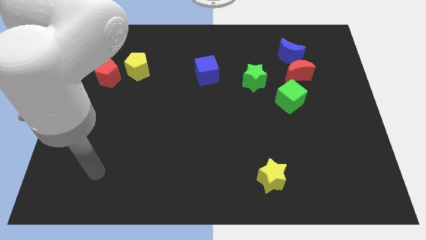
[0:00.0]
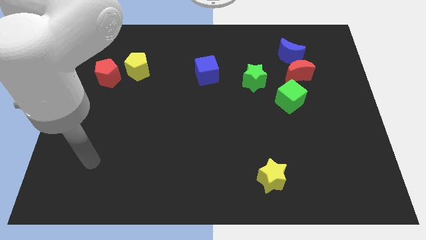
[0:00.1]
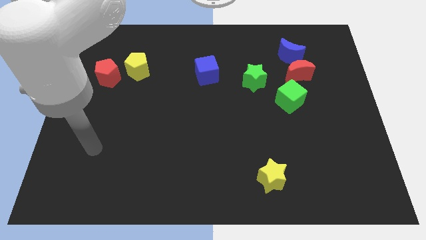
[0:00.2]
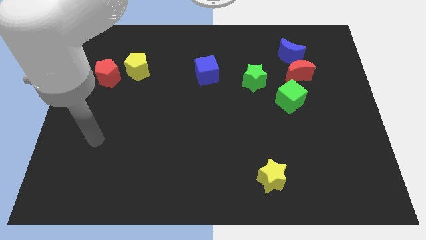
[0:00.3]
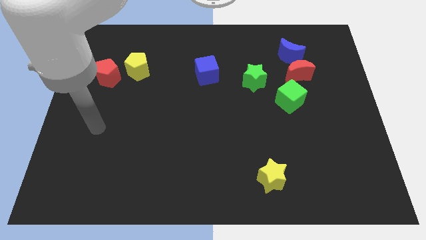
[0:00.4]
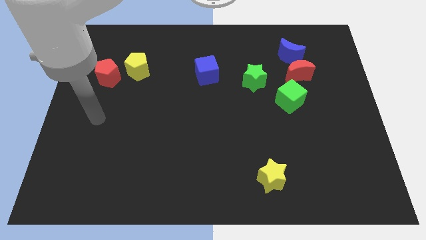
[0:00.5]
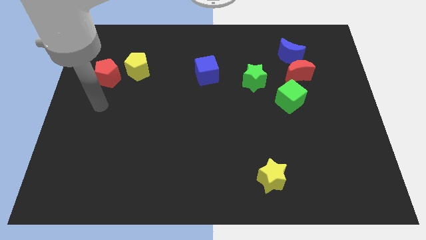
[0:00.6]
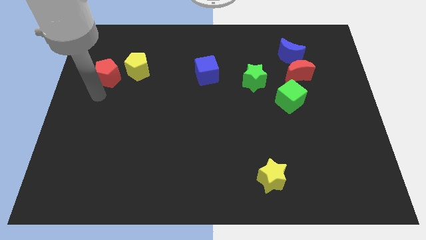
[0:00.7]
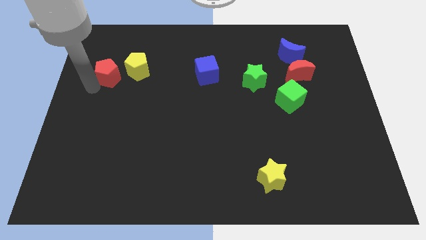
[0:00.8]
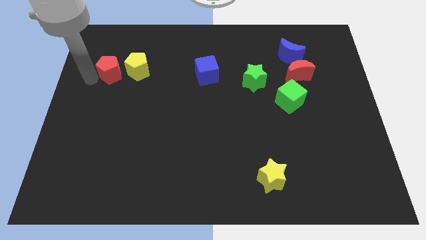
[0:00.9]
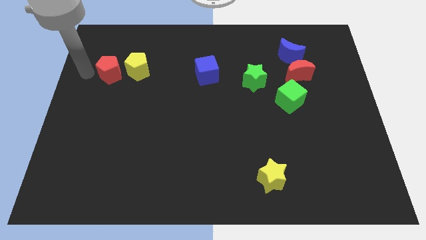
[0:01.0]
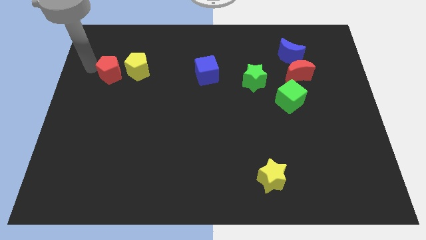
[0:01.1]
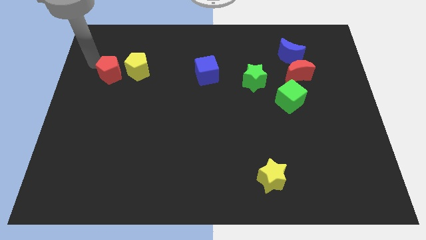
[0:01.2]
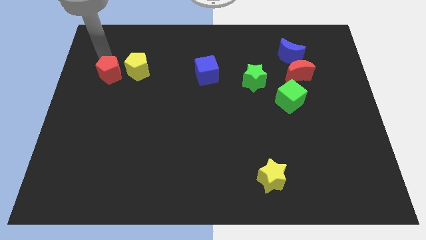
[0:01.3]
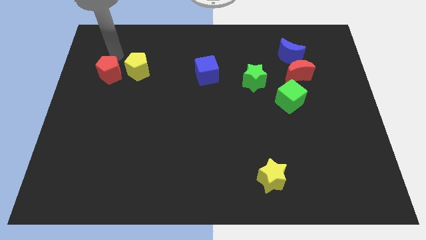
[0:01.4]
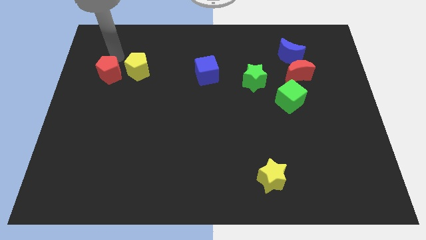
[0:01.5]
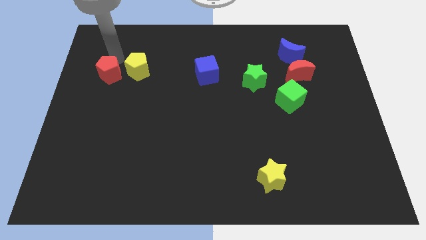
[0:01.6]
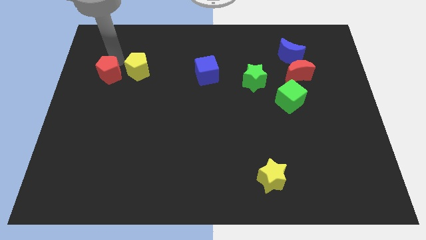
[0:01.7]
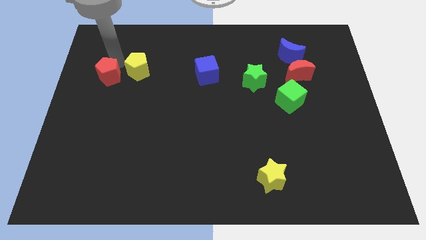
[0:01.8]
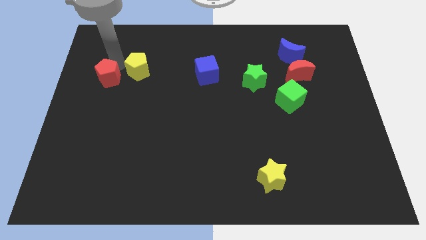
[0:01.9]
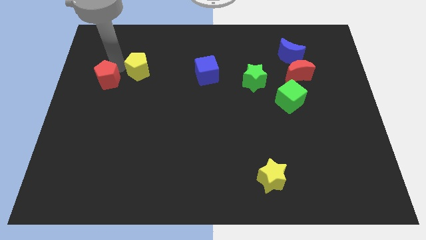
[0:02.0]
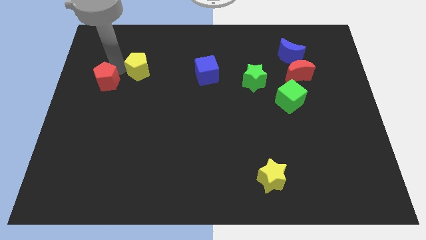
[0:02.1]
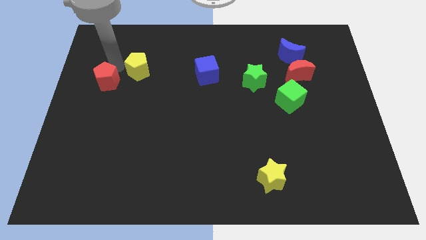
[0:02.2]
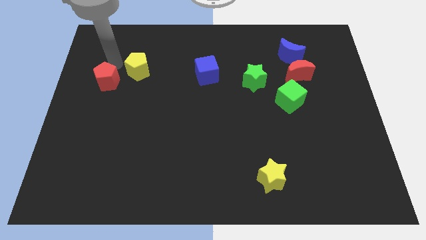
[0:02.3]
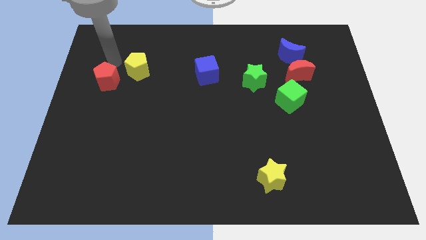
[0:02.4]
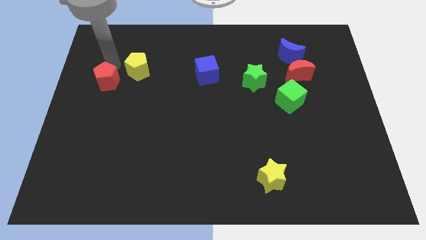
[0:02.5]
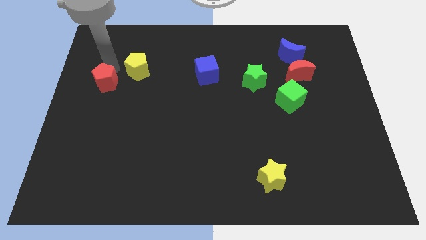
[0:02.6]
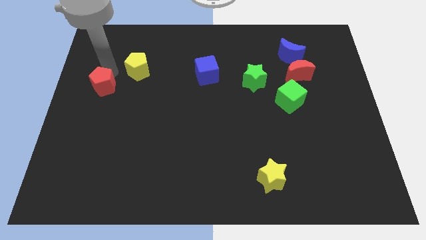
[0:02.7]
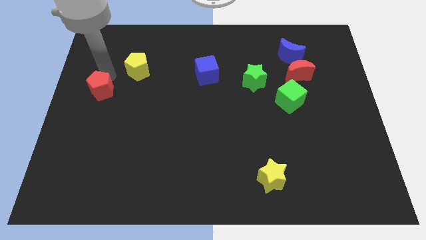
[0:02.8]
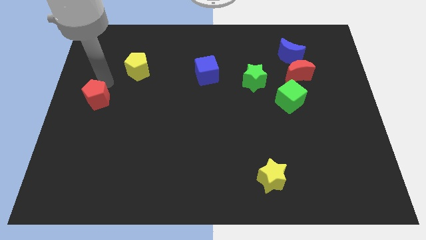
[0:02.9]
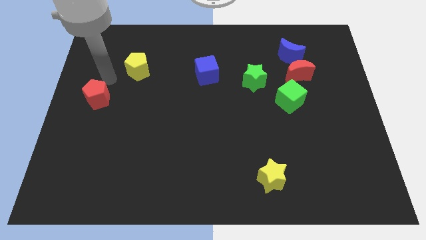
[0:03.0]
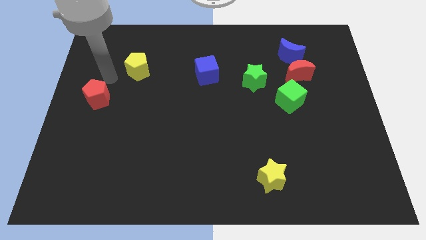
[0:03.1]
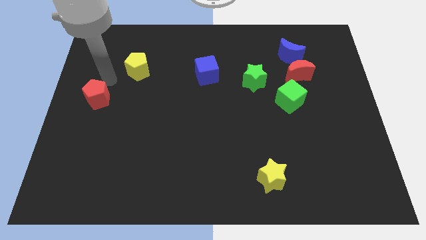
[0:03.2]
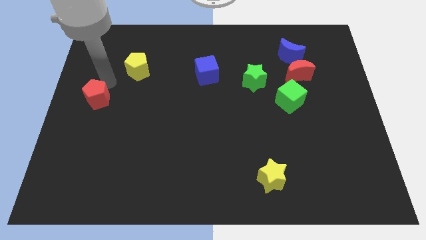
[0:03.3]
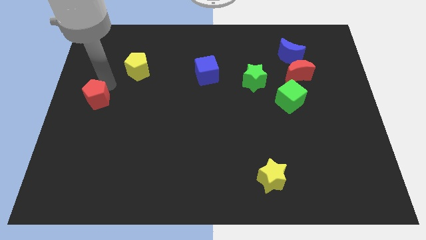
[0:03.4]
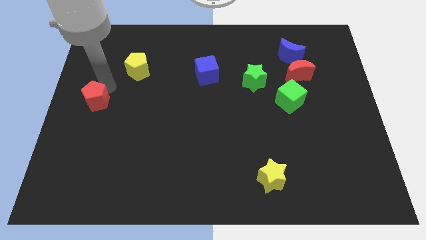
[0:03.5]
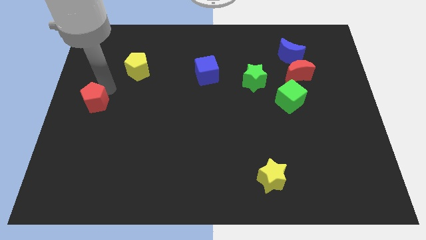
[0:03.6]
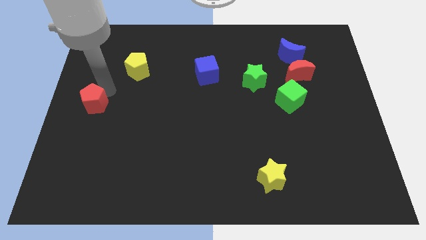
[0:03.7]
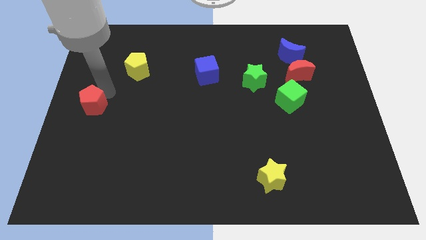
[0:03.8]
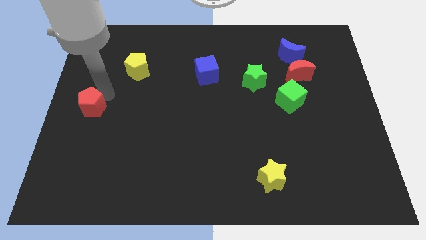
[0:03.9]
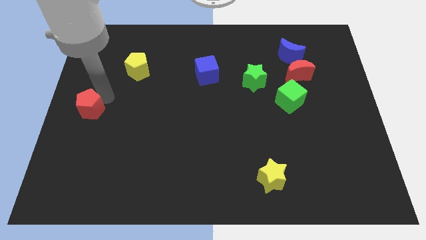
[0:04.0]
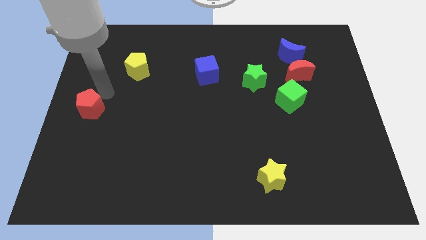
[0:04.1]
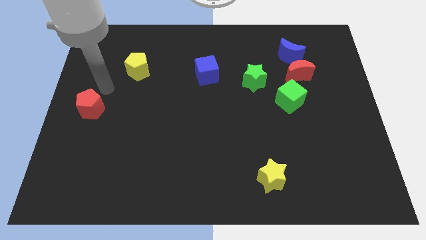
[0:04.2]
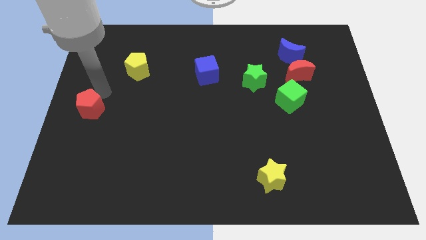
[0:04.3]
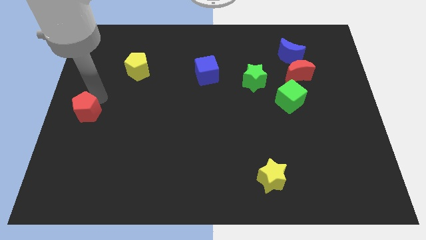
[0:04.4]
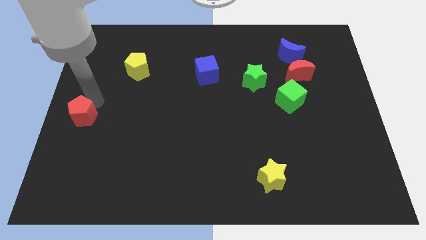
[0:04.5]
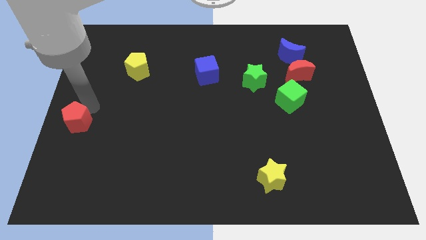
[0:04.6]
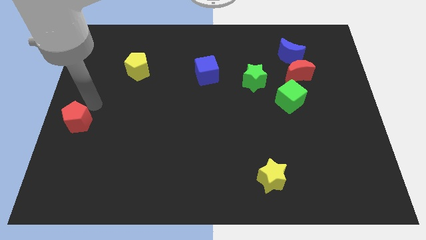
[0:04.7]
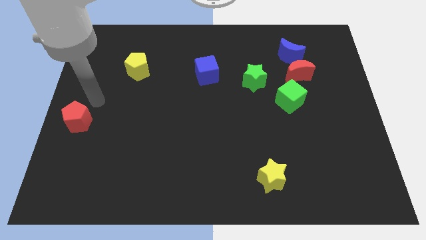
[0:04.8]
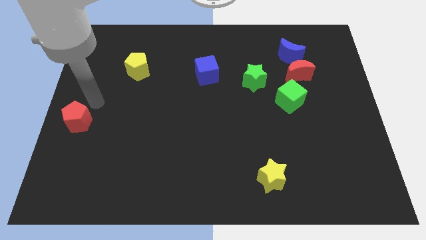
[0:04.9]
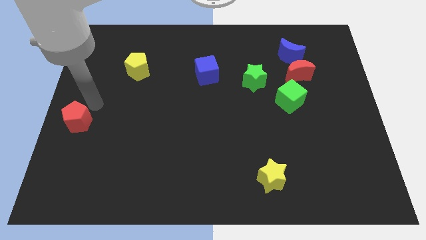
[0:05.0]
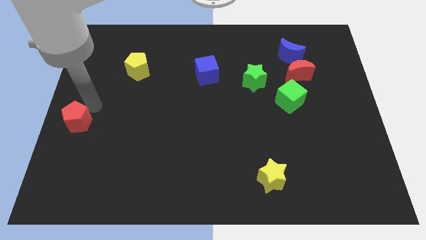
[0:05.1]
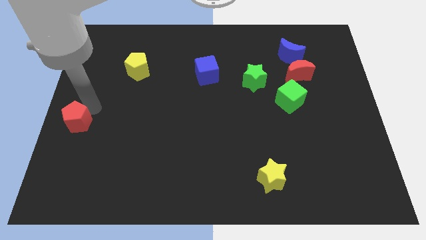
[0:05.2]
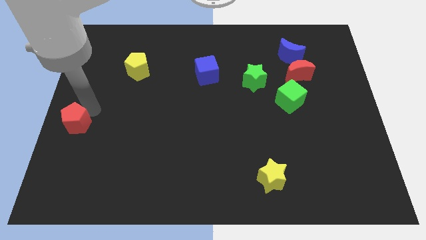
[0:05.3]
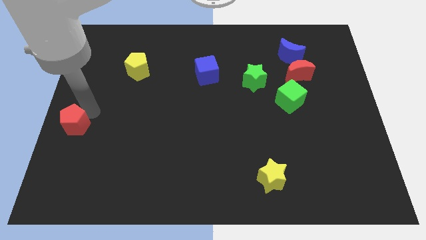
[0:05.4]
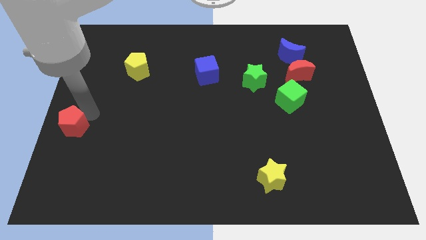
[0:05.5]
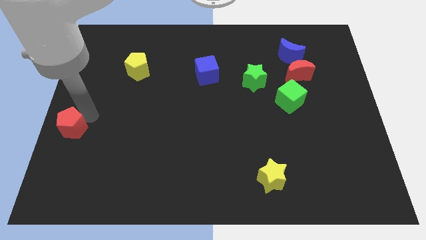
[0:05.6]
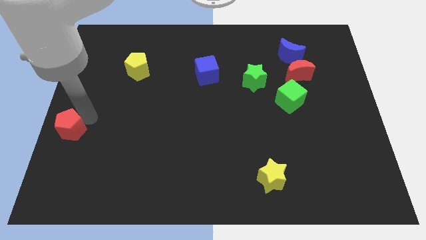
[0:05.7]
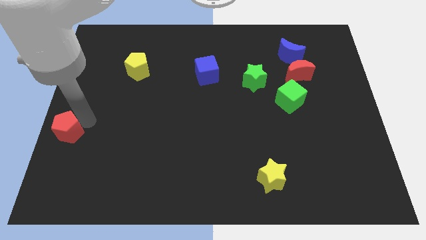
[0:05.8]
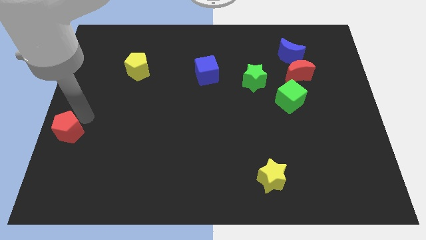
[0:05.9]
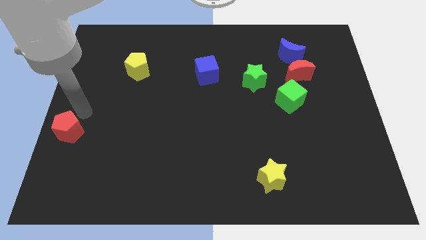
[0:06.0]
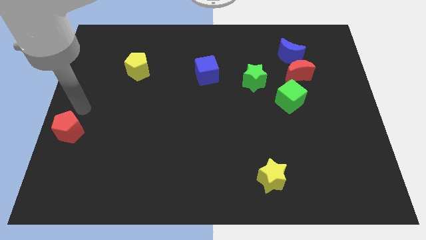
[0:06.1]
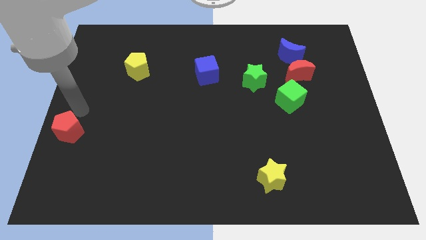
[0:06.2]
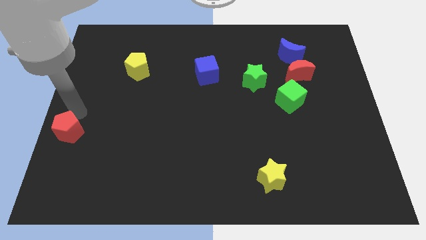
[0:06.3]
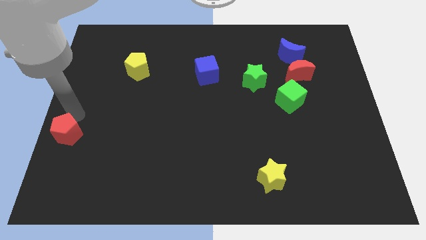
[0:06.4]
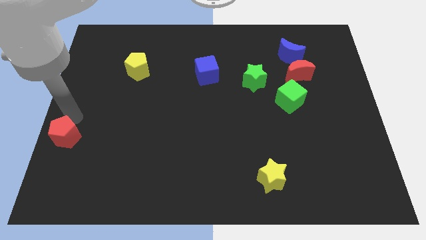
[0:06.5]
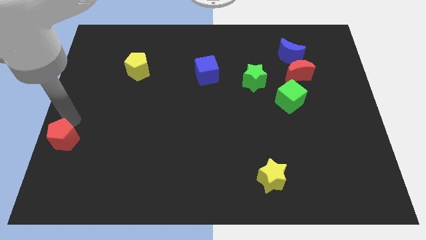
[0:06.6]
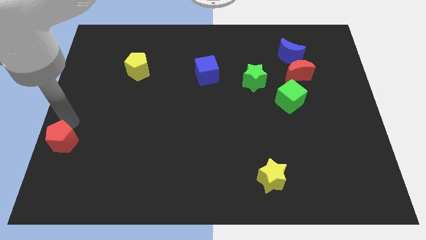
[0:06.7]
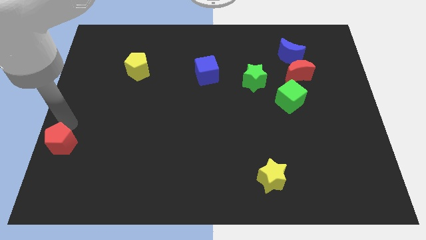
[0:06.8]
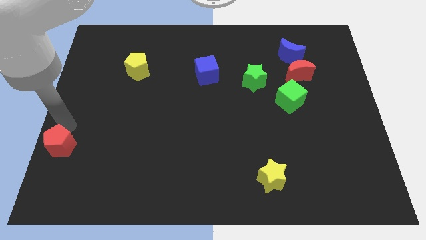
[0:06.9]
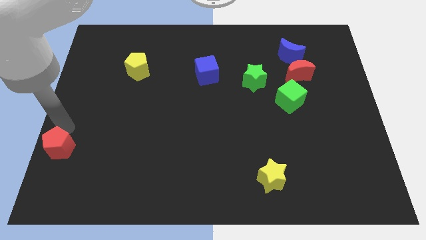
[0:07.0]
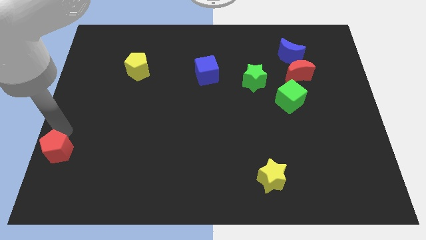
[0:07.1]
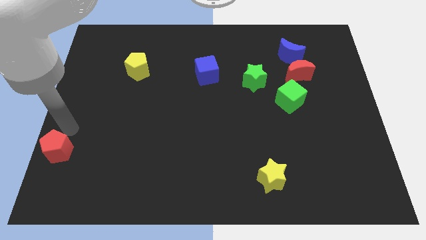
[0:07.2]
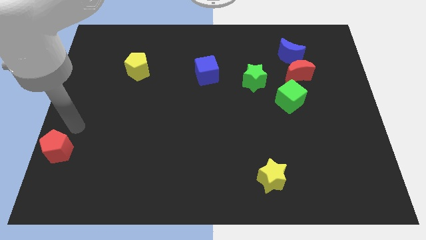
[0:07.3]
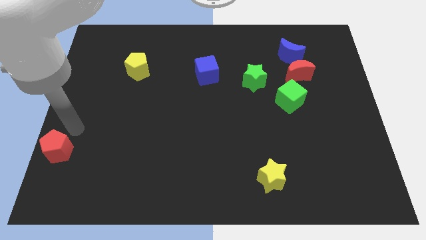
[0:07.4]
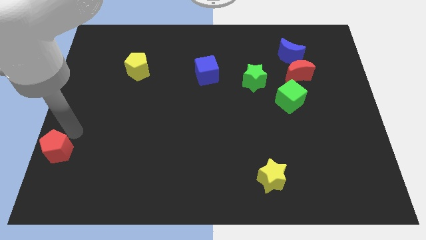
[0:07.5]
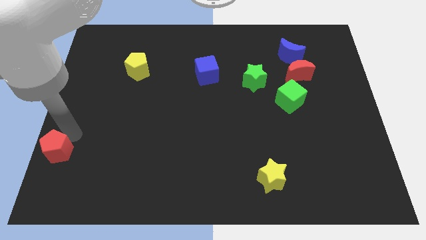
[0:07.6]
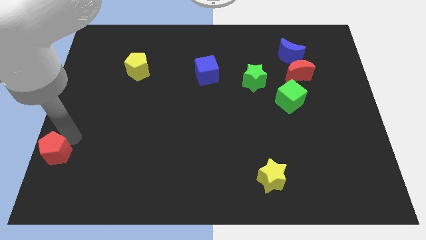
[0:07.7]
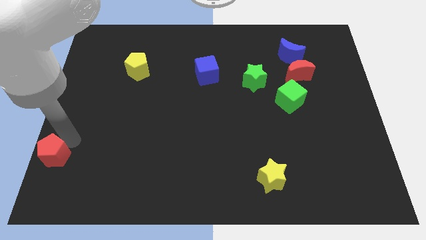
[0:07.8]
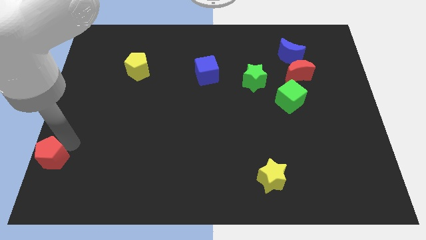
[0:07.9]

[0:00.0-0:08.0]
push the red pentagon to the bottom left
